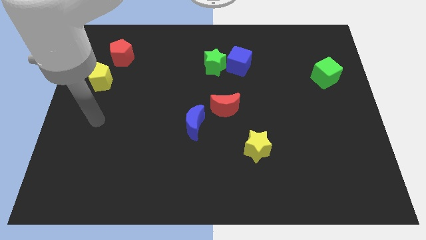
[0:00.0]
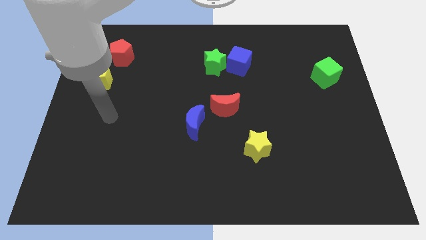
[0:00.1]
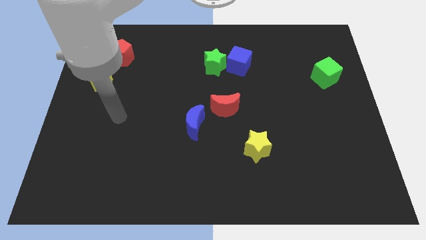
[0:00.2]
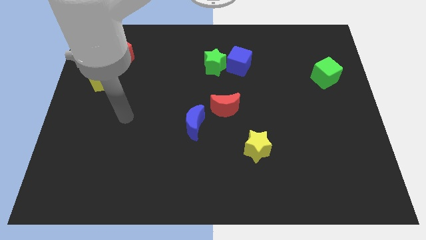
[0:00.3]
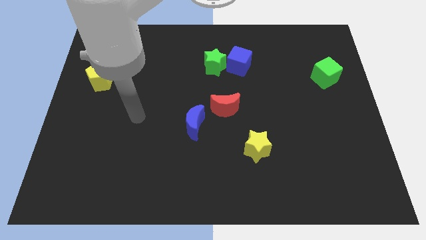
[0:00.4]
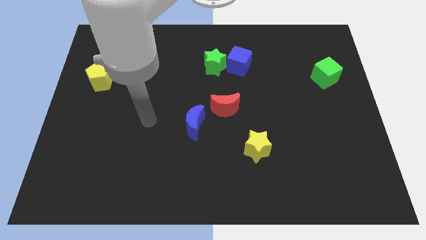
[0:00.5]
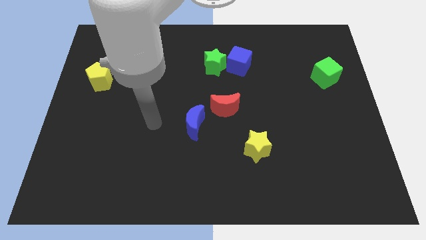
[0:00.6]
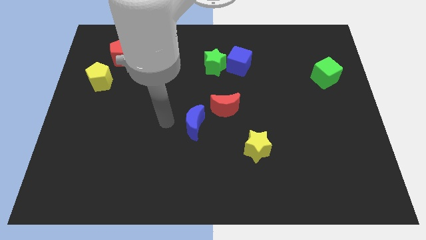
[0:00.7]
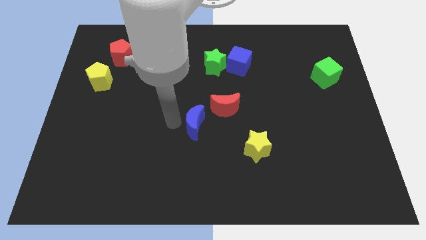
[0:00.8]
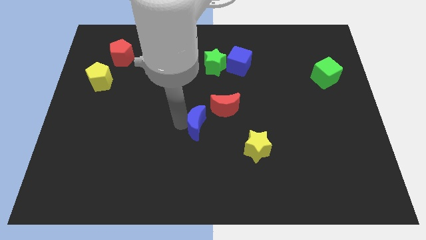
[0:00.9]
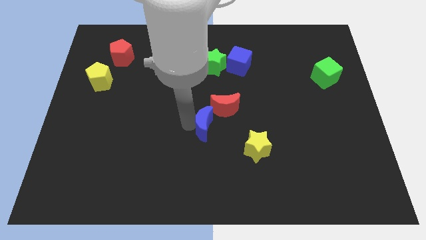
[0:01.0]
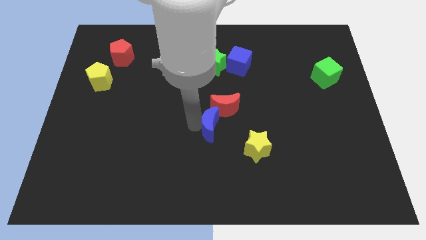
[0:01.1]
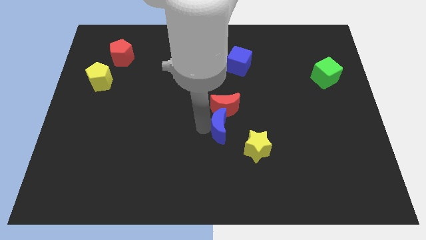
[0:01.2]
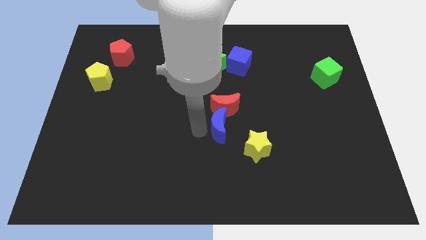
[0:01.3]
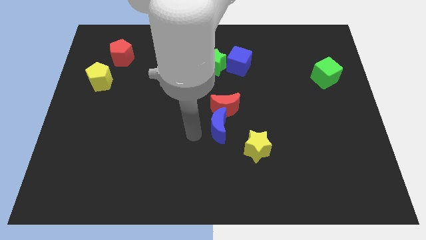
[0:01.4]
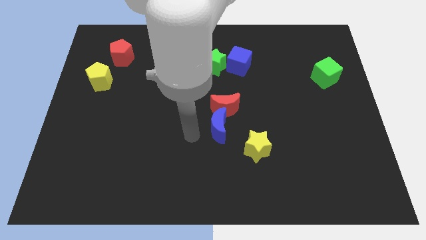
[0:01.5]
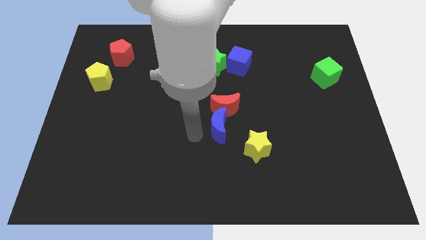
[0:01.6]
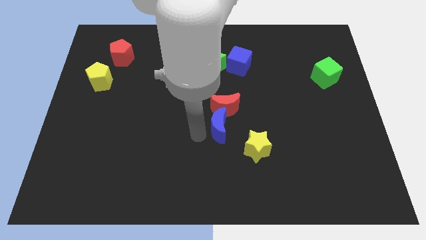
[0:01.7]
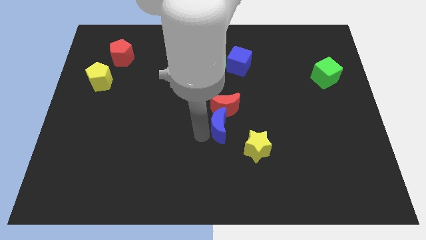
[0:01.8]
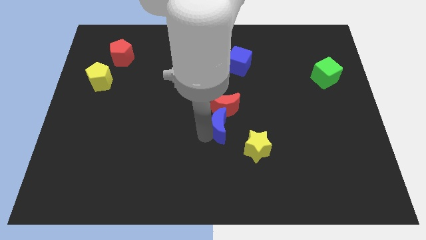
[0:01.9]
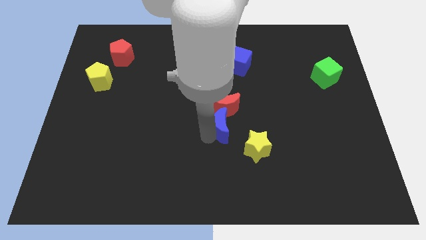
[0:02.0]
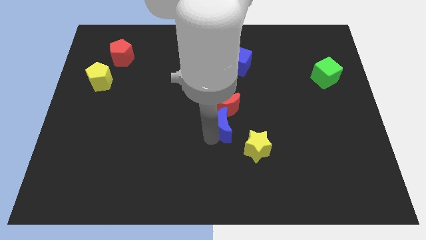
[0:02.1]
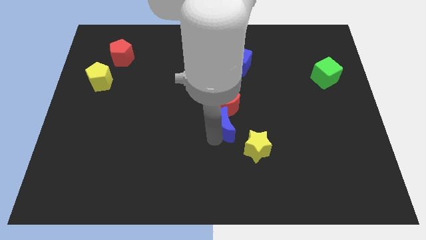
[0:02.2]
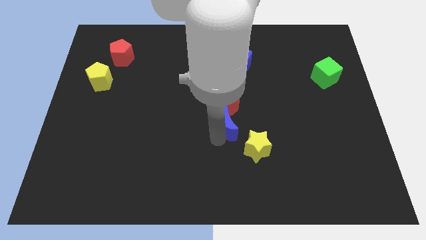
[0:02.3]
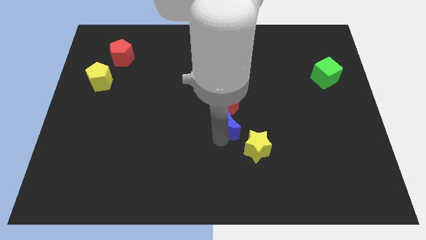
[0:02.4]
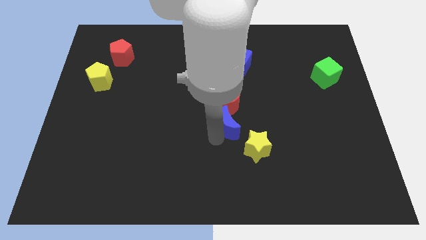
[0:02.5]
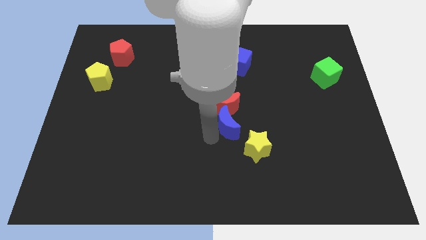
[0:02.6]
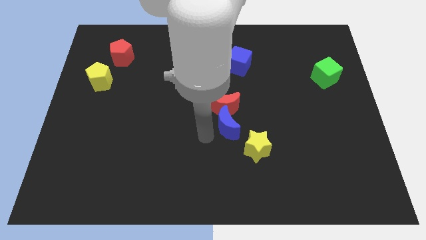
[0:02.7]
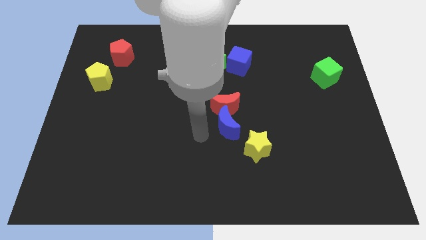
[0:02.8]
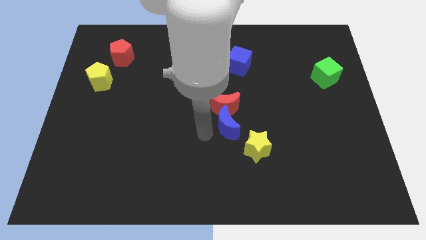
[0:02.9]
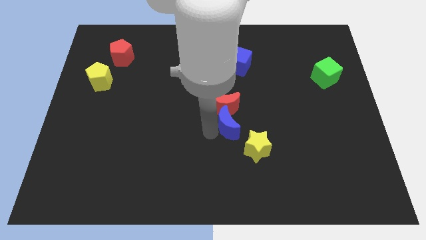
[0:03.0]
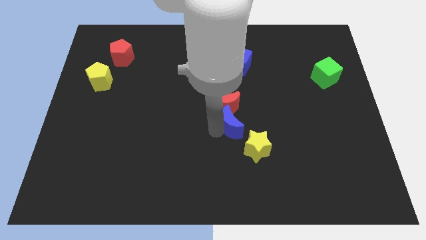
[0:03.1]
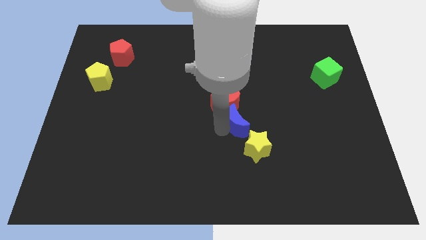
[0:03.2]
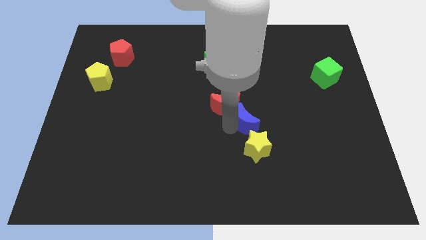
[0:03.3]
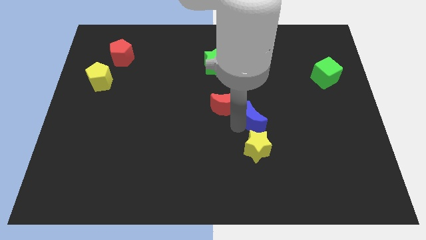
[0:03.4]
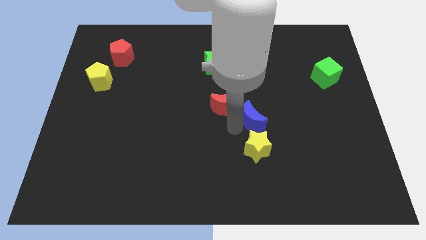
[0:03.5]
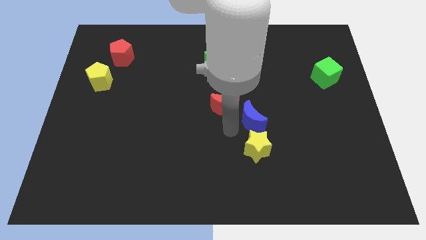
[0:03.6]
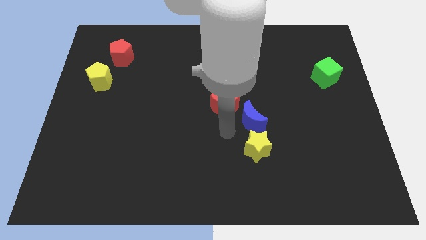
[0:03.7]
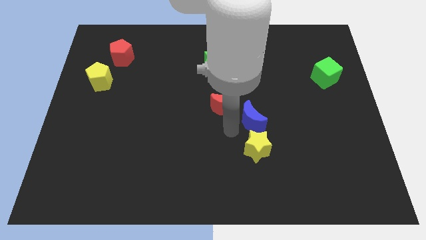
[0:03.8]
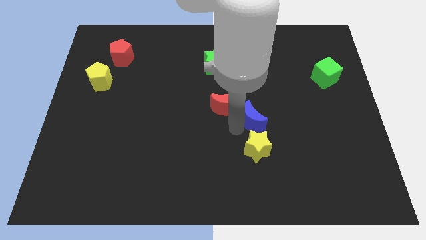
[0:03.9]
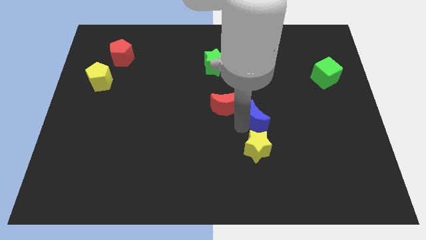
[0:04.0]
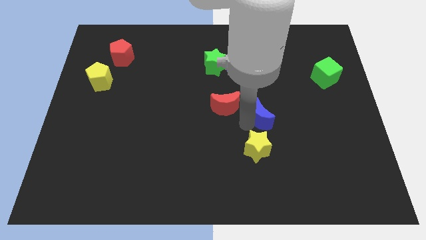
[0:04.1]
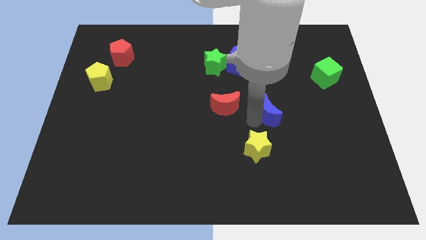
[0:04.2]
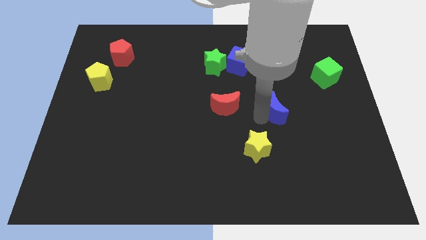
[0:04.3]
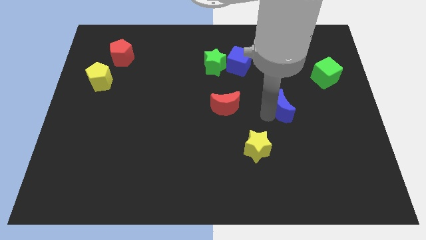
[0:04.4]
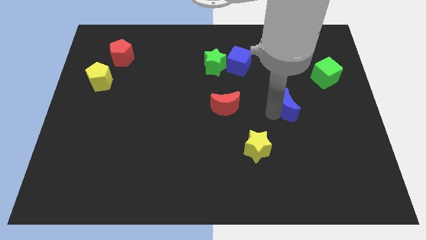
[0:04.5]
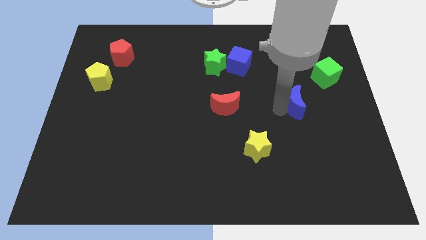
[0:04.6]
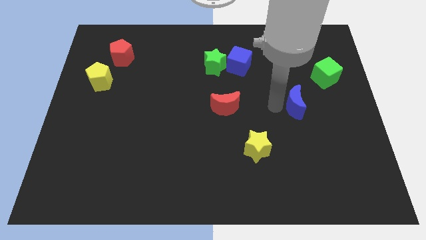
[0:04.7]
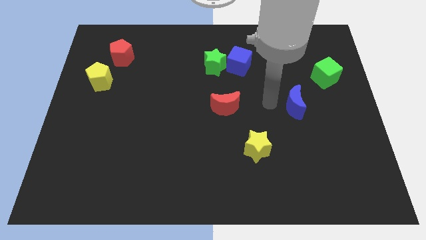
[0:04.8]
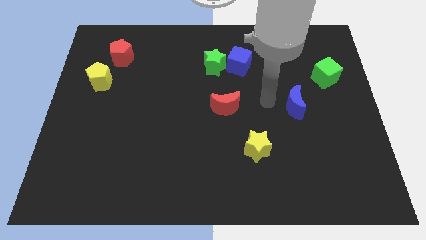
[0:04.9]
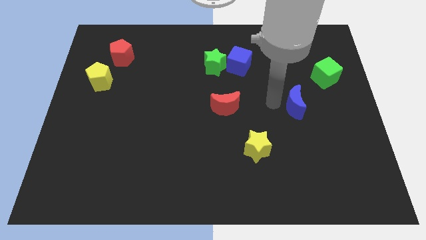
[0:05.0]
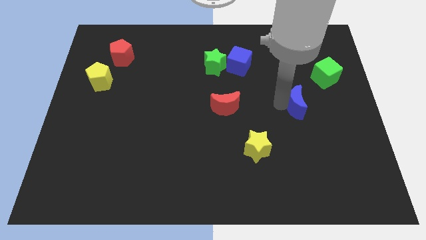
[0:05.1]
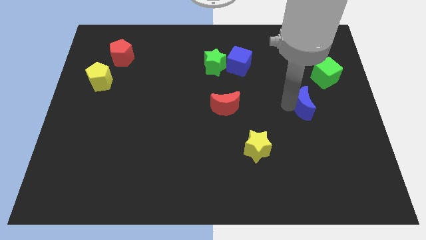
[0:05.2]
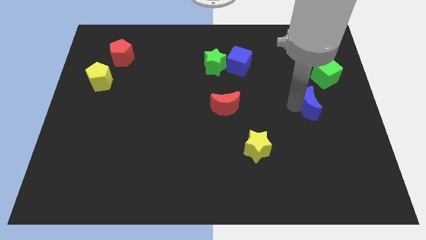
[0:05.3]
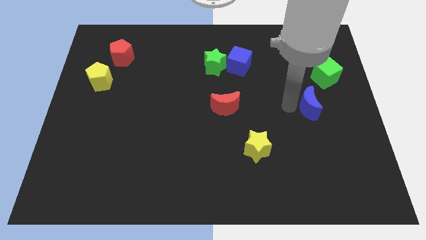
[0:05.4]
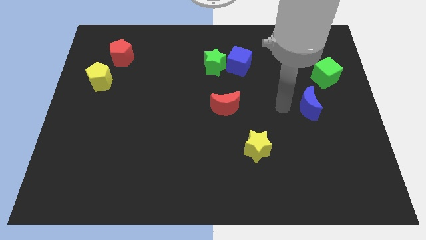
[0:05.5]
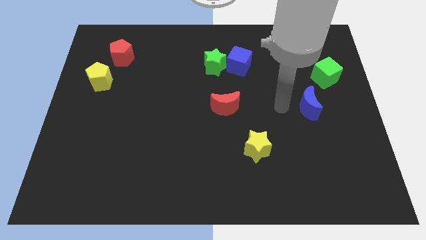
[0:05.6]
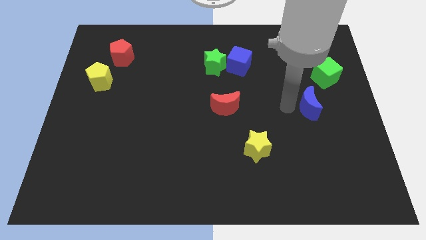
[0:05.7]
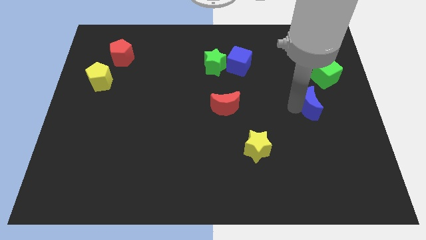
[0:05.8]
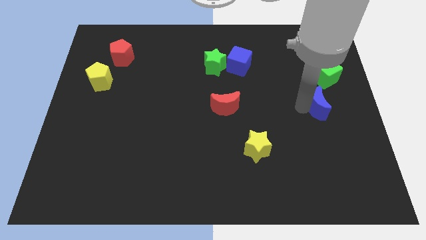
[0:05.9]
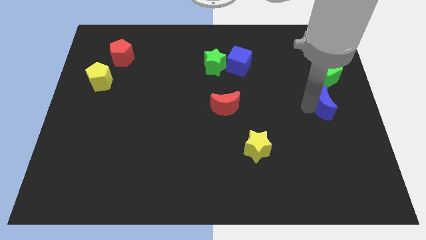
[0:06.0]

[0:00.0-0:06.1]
put the blue moon to the center right
